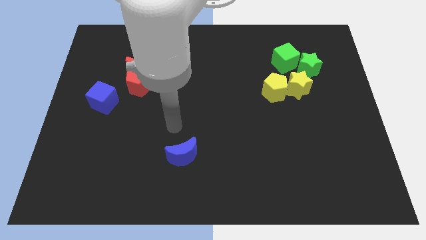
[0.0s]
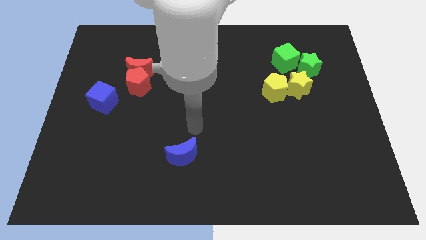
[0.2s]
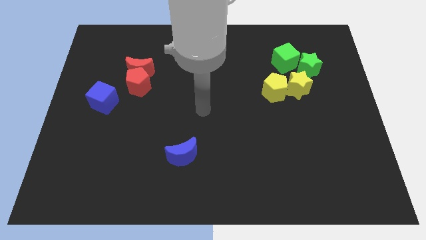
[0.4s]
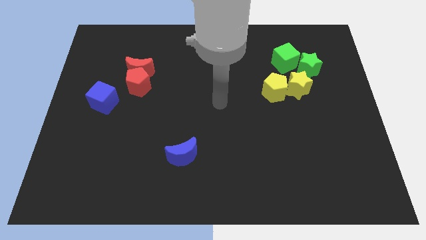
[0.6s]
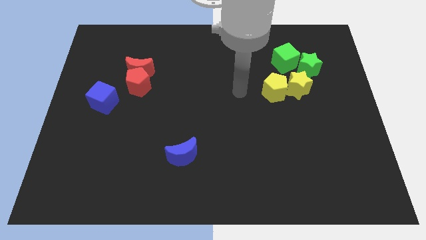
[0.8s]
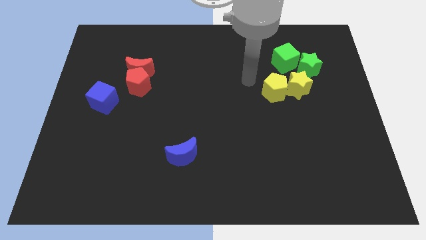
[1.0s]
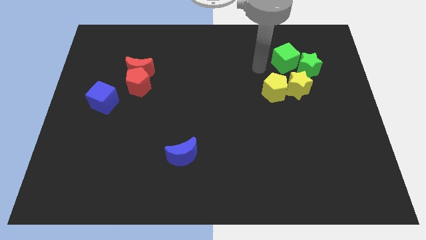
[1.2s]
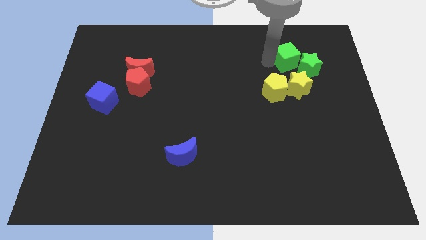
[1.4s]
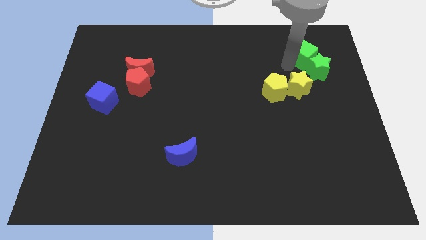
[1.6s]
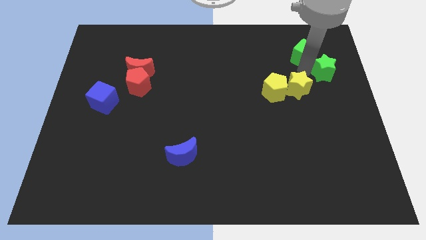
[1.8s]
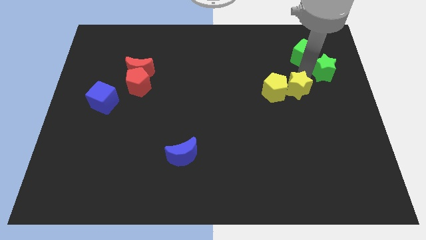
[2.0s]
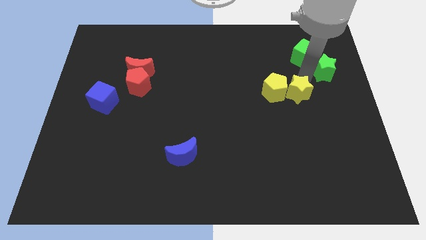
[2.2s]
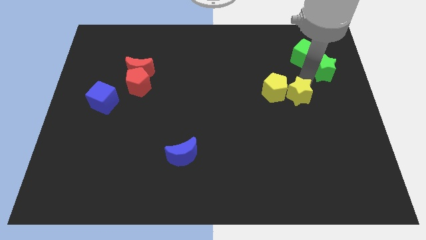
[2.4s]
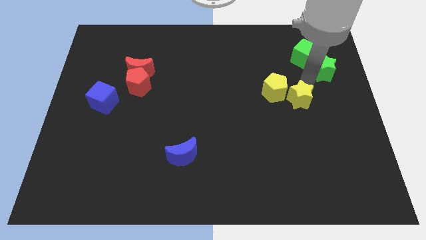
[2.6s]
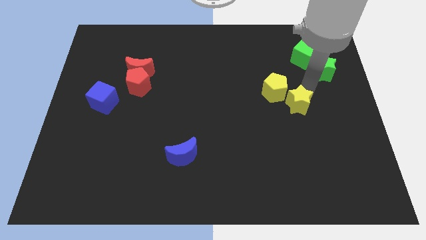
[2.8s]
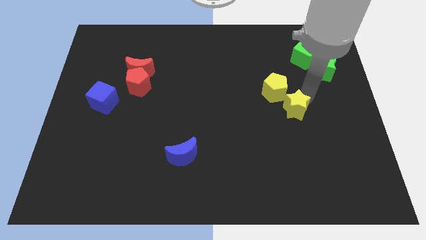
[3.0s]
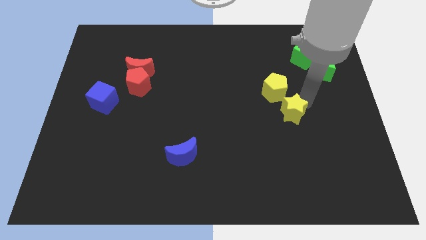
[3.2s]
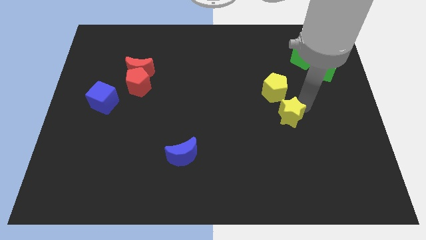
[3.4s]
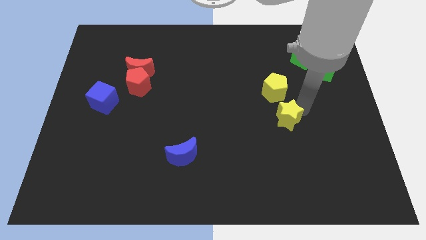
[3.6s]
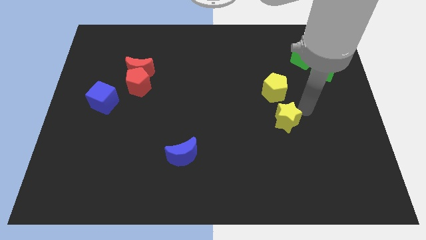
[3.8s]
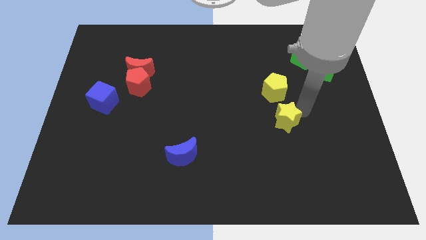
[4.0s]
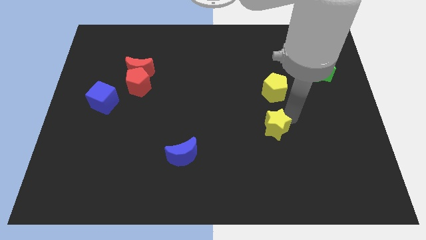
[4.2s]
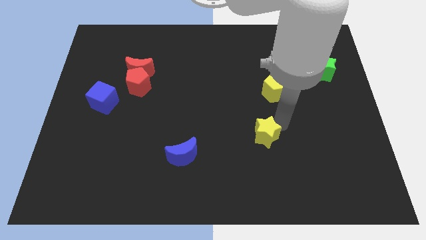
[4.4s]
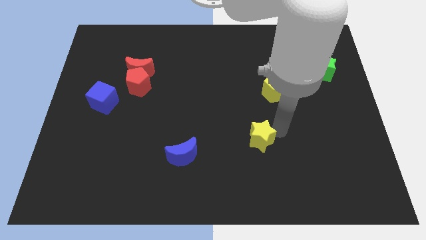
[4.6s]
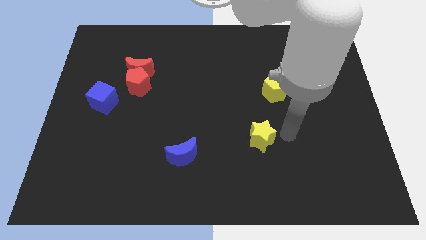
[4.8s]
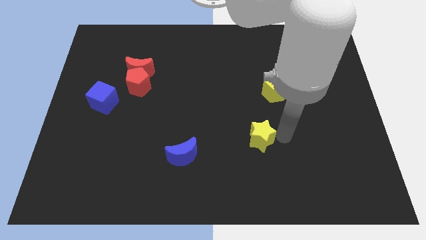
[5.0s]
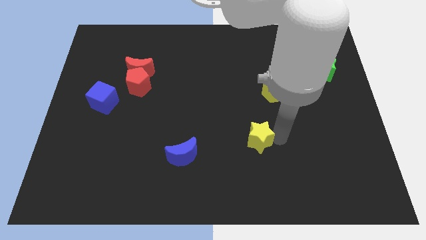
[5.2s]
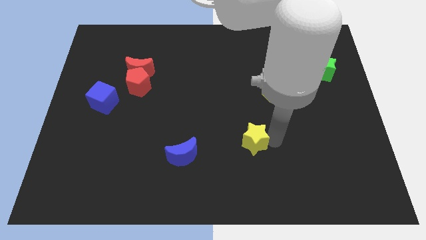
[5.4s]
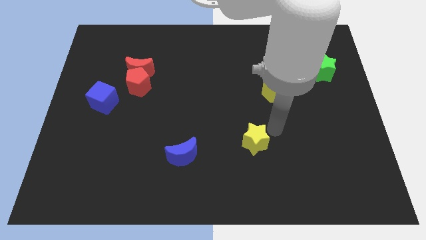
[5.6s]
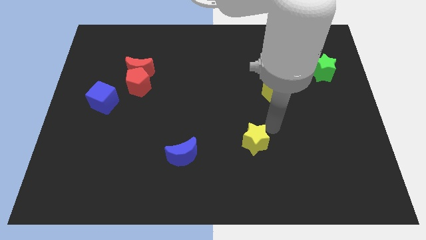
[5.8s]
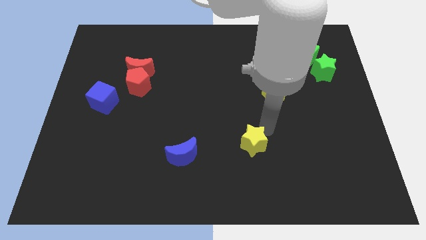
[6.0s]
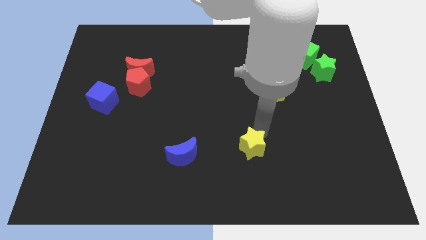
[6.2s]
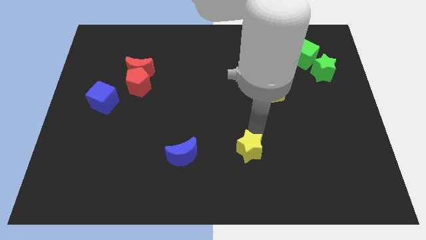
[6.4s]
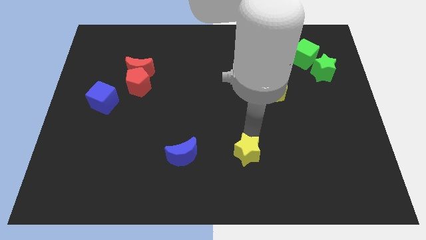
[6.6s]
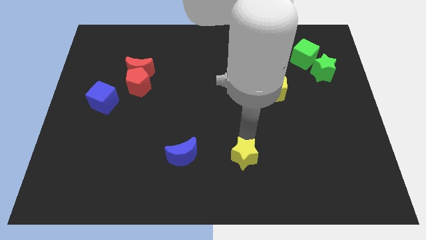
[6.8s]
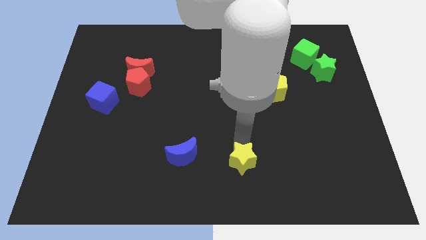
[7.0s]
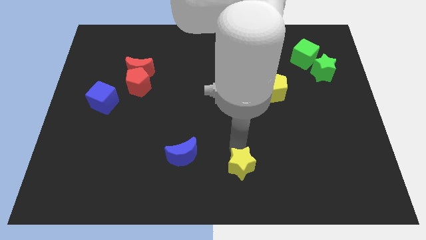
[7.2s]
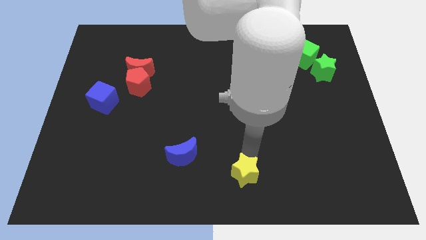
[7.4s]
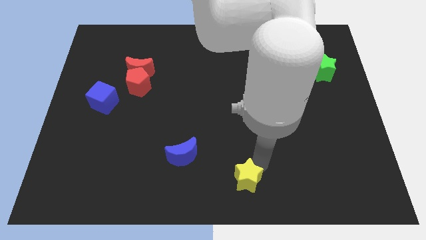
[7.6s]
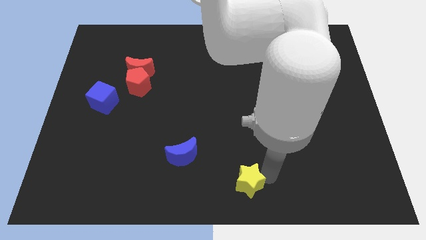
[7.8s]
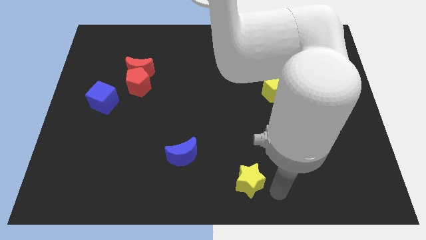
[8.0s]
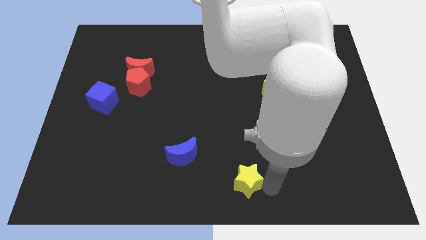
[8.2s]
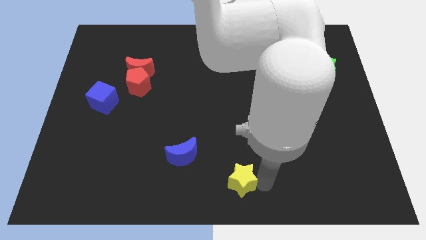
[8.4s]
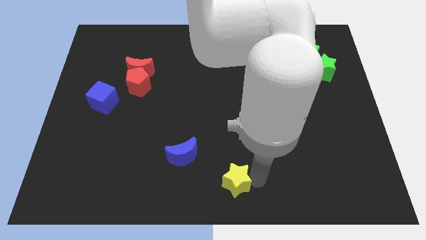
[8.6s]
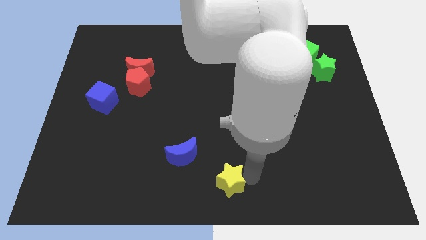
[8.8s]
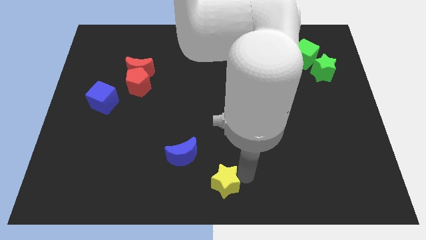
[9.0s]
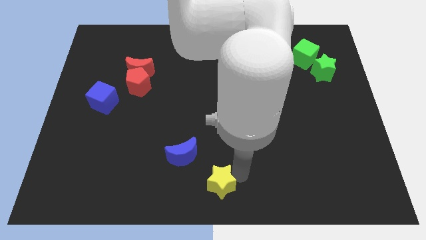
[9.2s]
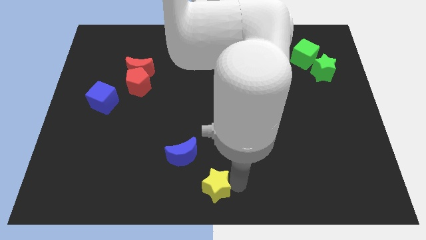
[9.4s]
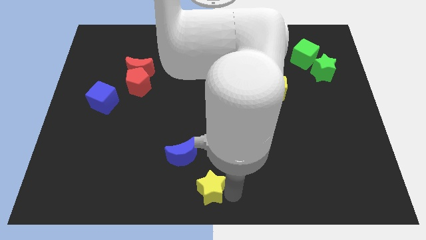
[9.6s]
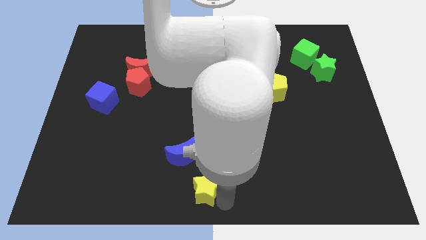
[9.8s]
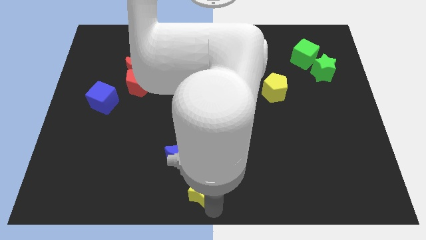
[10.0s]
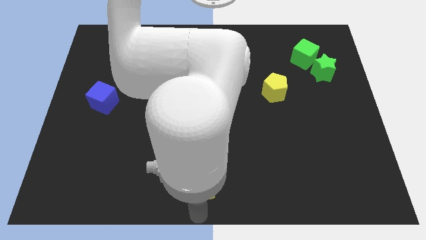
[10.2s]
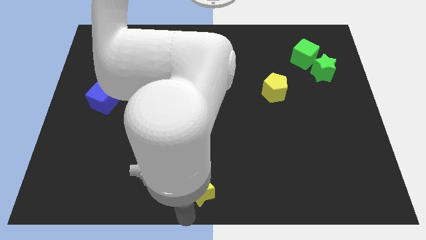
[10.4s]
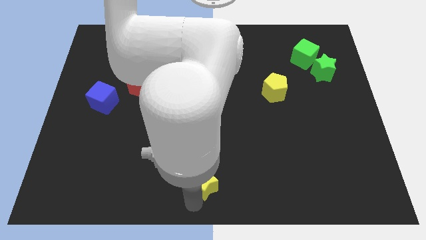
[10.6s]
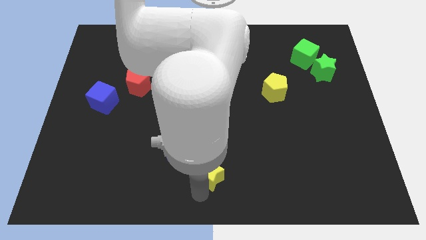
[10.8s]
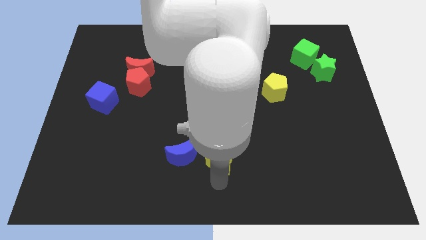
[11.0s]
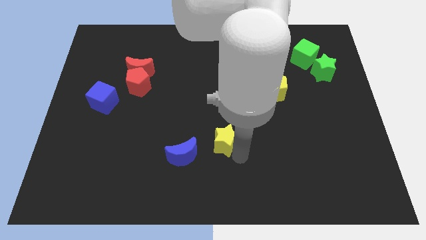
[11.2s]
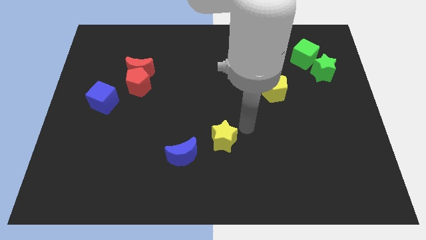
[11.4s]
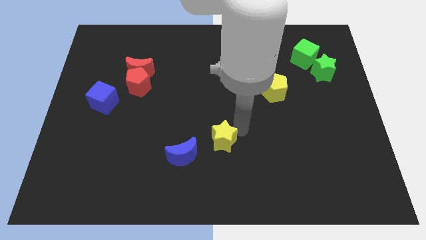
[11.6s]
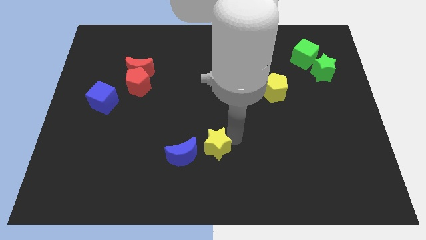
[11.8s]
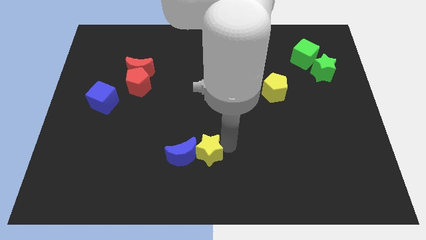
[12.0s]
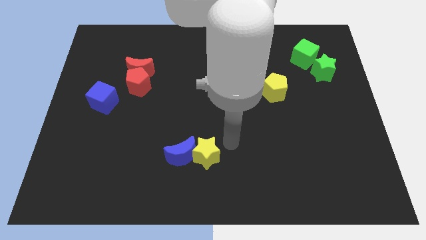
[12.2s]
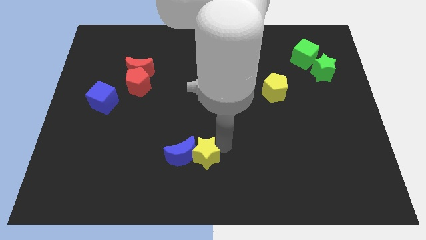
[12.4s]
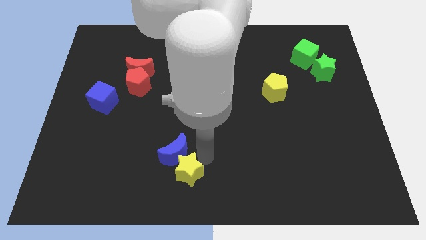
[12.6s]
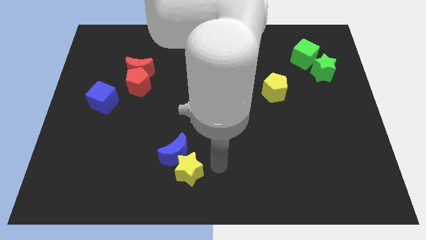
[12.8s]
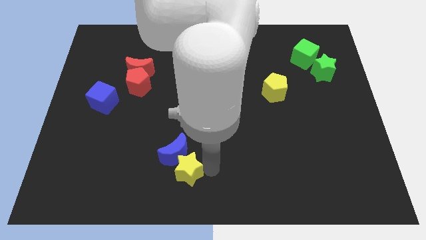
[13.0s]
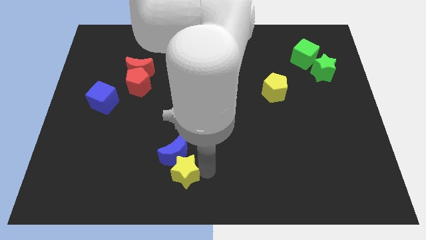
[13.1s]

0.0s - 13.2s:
slide the yellow star to the bottom left of the blue moon
